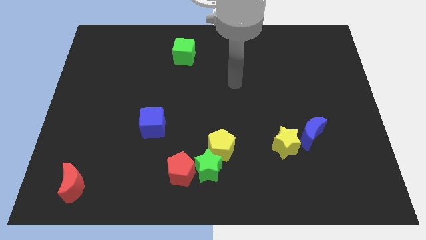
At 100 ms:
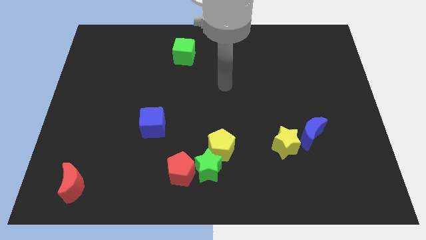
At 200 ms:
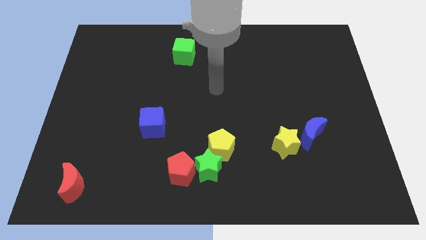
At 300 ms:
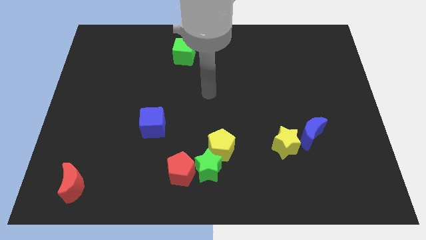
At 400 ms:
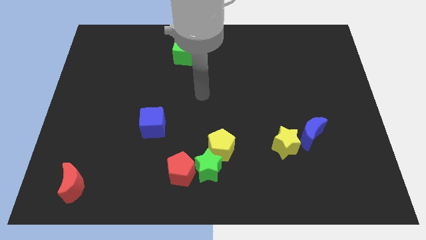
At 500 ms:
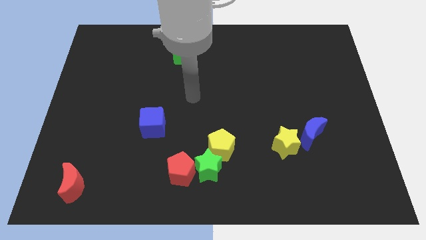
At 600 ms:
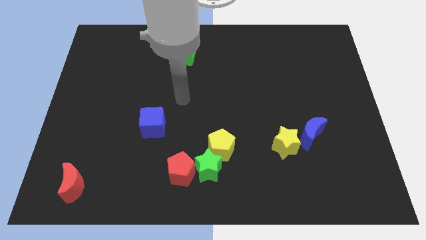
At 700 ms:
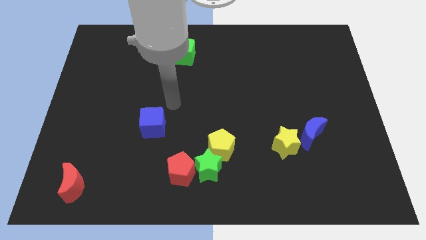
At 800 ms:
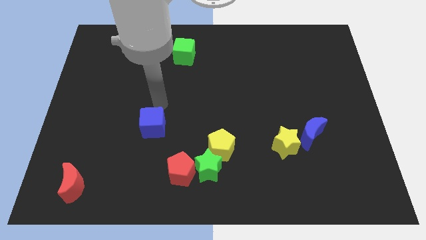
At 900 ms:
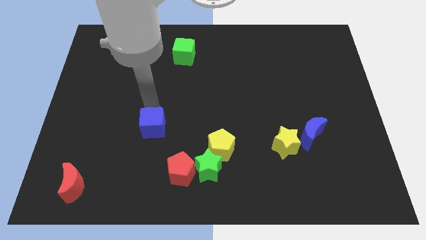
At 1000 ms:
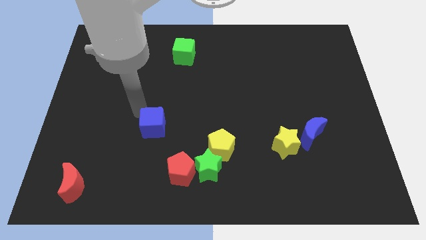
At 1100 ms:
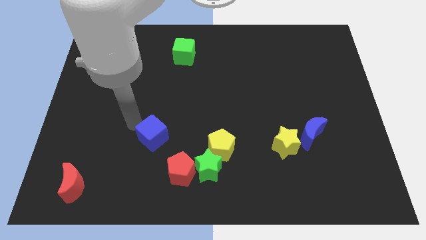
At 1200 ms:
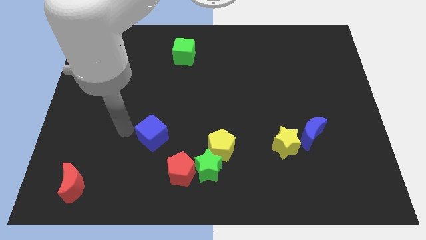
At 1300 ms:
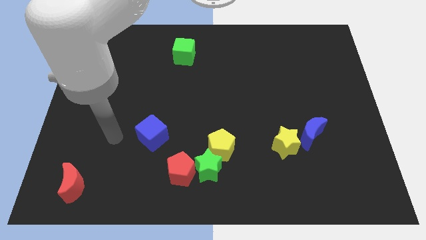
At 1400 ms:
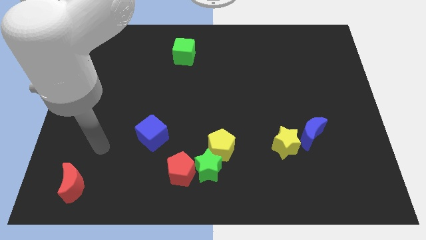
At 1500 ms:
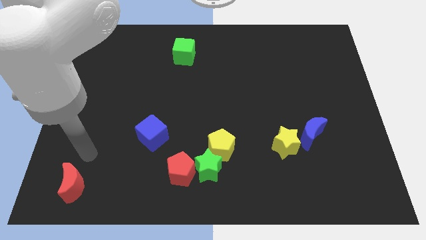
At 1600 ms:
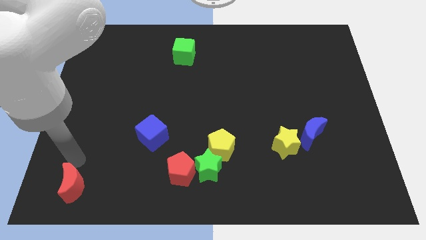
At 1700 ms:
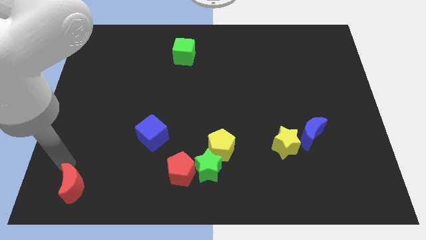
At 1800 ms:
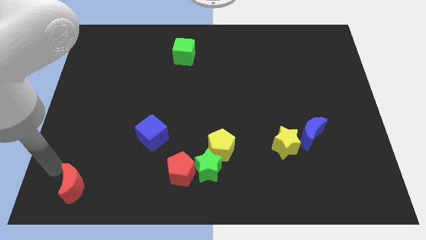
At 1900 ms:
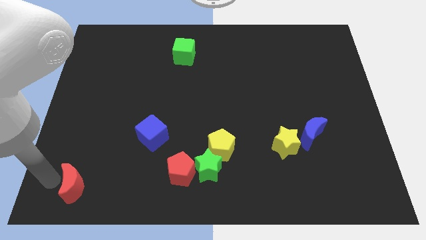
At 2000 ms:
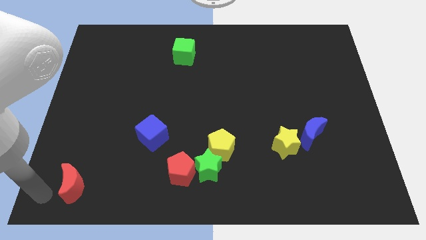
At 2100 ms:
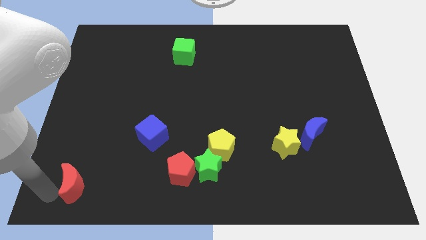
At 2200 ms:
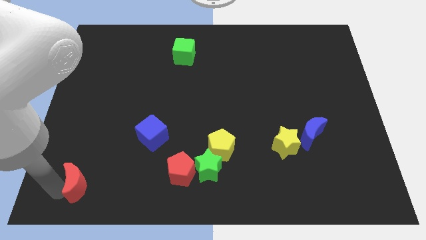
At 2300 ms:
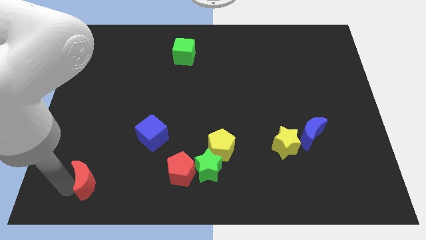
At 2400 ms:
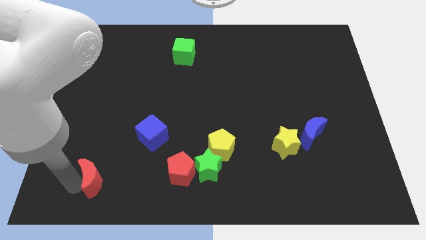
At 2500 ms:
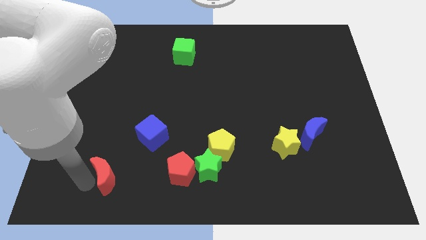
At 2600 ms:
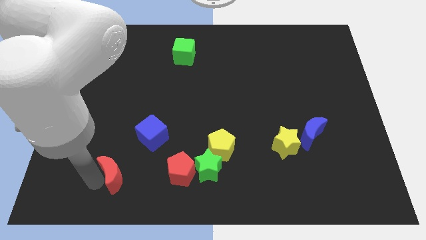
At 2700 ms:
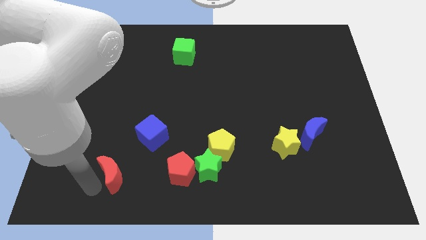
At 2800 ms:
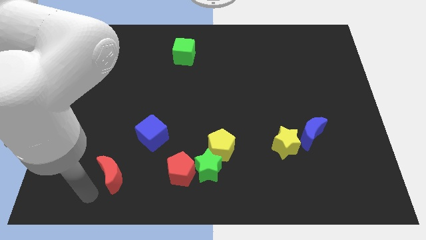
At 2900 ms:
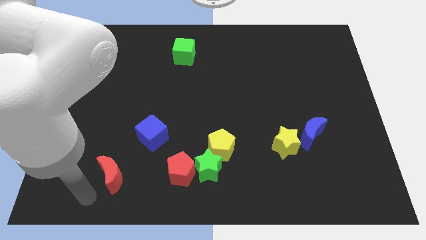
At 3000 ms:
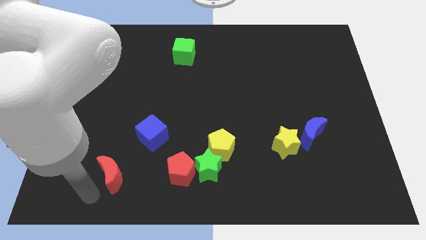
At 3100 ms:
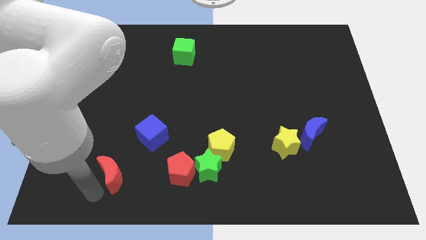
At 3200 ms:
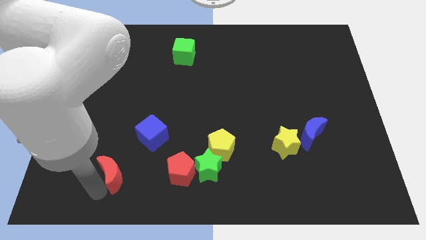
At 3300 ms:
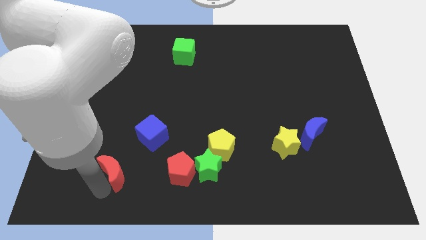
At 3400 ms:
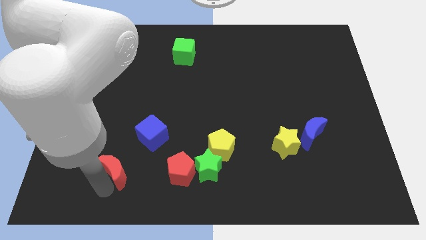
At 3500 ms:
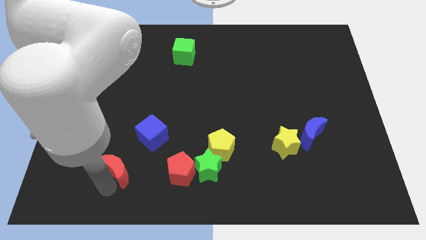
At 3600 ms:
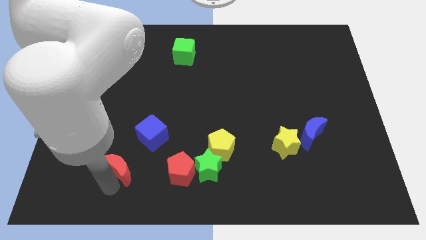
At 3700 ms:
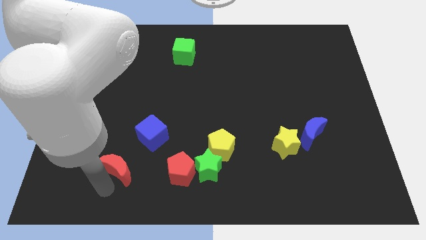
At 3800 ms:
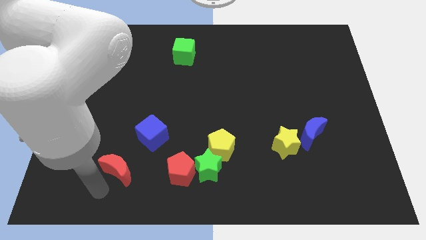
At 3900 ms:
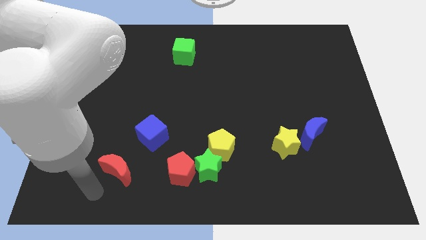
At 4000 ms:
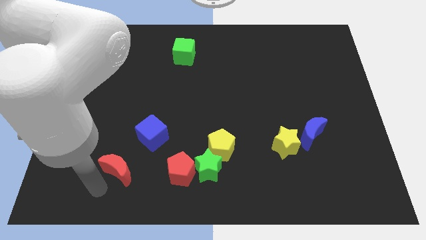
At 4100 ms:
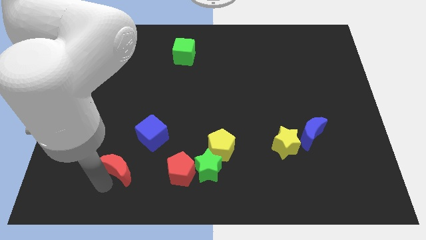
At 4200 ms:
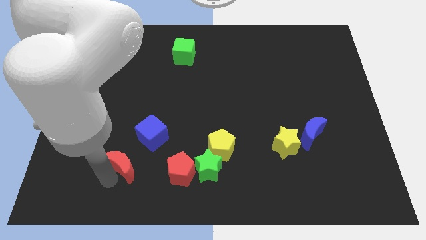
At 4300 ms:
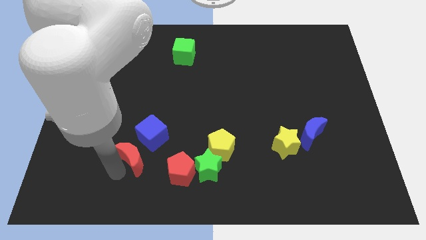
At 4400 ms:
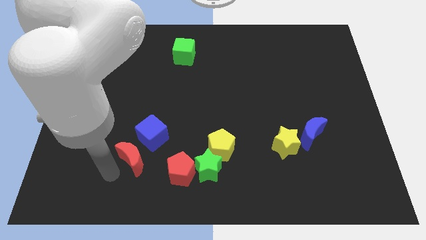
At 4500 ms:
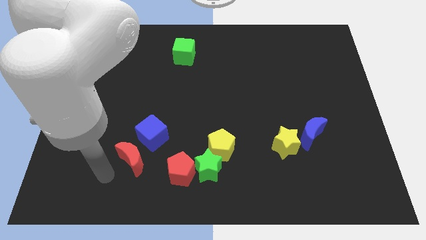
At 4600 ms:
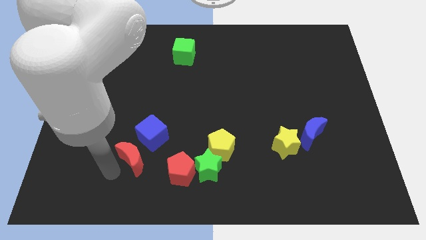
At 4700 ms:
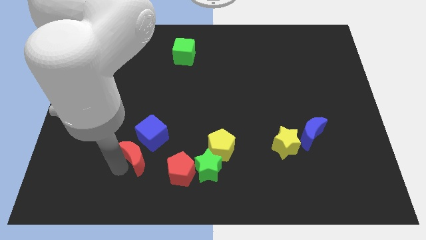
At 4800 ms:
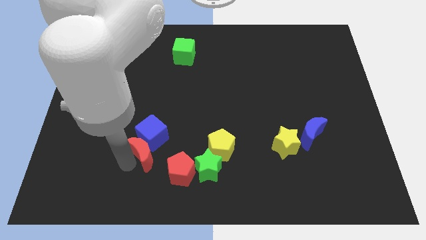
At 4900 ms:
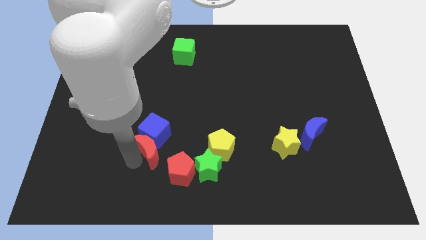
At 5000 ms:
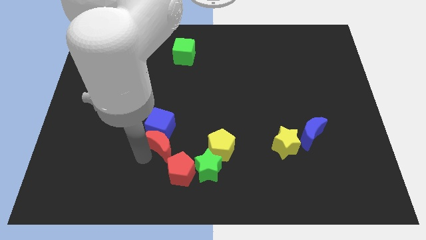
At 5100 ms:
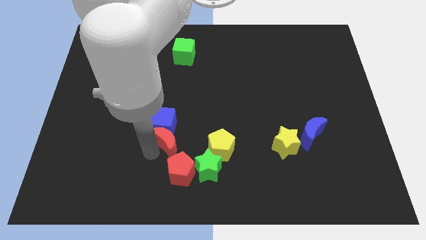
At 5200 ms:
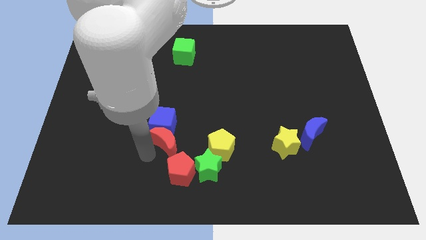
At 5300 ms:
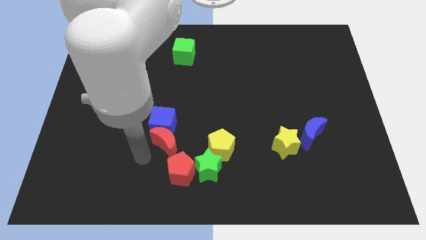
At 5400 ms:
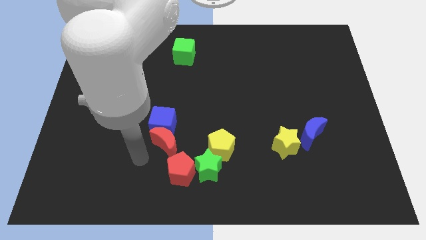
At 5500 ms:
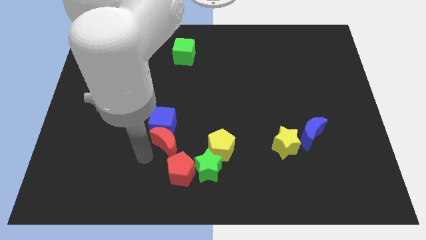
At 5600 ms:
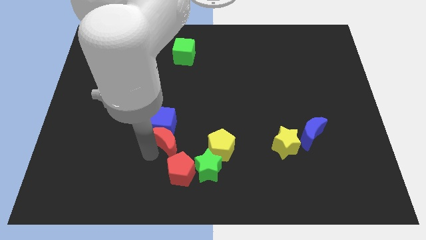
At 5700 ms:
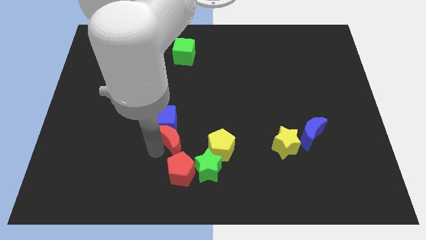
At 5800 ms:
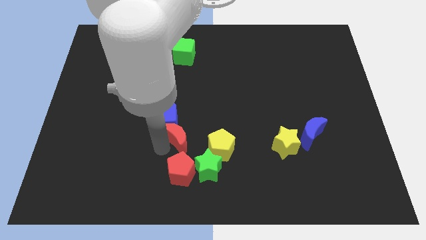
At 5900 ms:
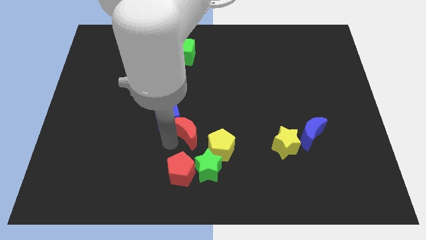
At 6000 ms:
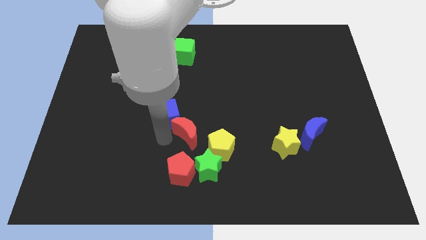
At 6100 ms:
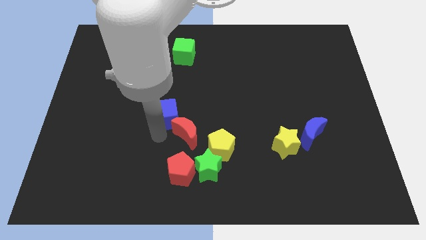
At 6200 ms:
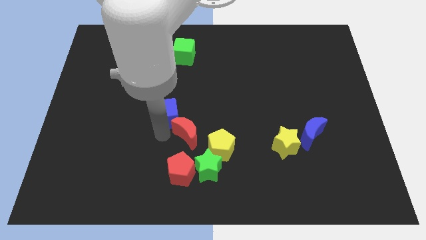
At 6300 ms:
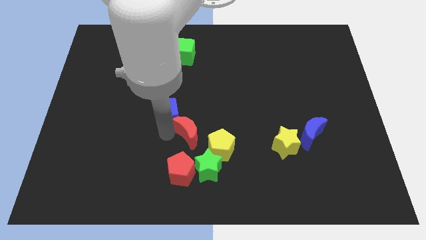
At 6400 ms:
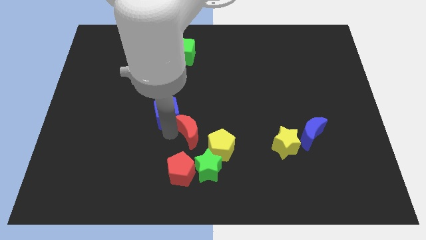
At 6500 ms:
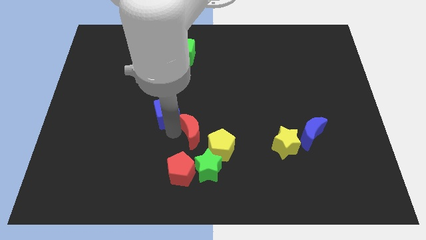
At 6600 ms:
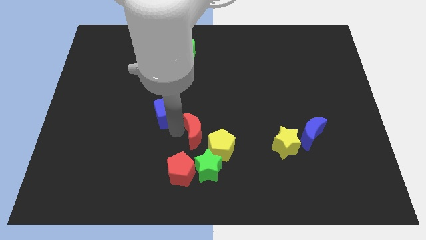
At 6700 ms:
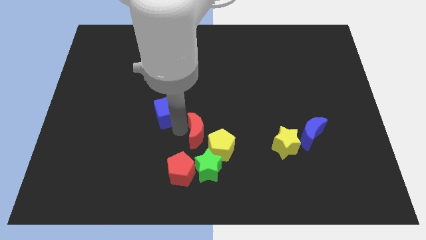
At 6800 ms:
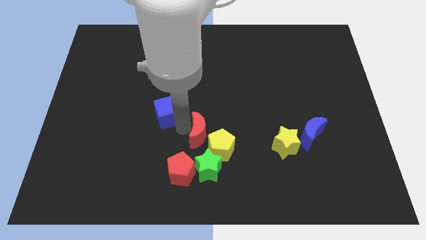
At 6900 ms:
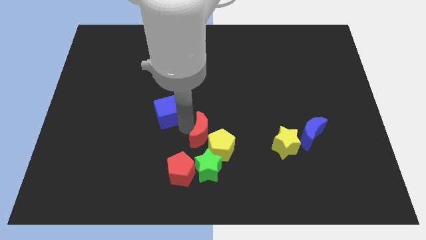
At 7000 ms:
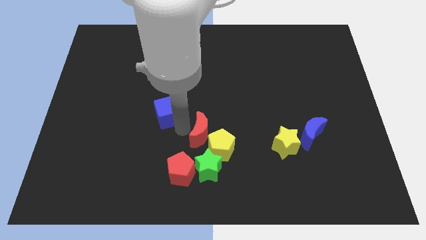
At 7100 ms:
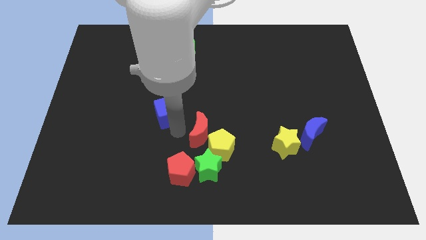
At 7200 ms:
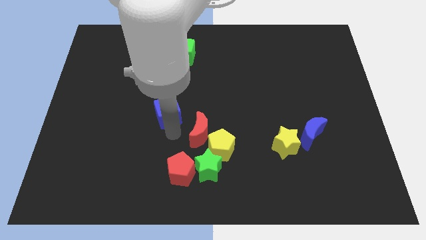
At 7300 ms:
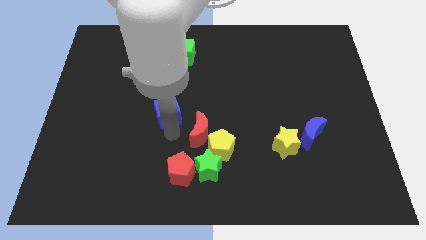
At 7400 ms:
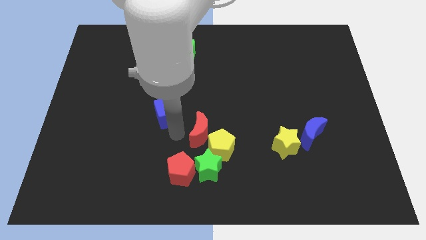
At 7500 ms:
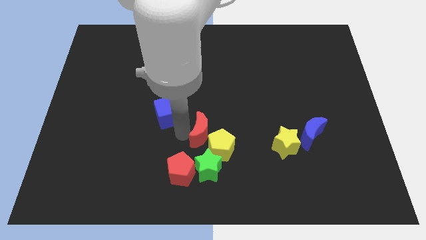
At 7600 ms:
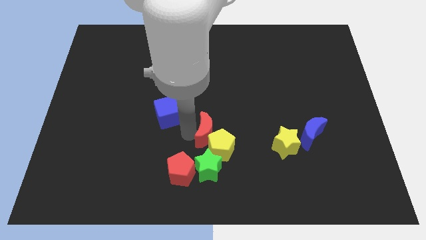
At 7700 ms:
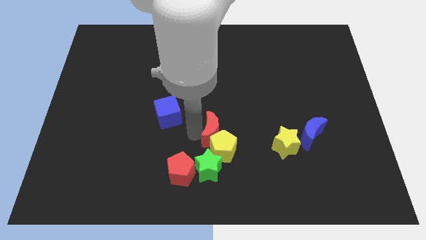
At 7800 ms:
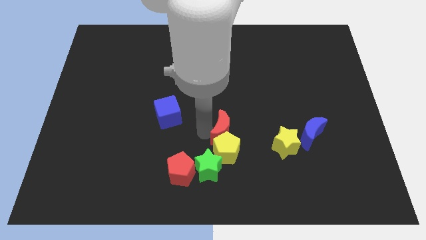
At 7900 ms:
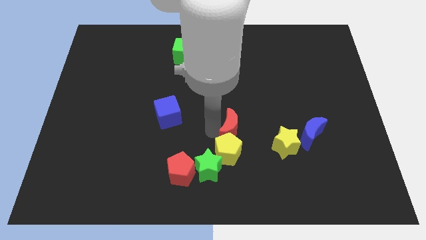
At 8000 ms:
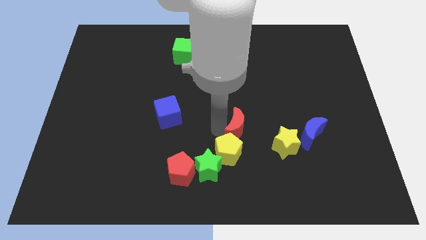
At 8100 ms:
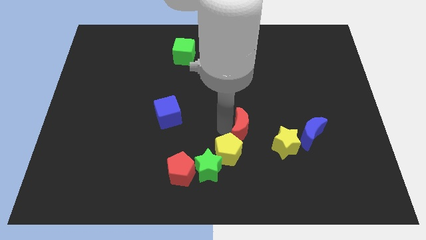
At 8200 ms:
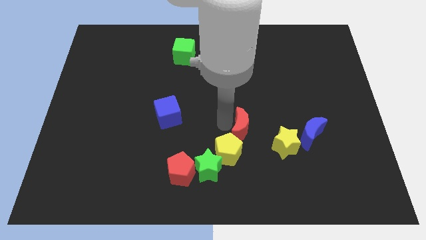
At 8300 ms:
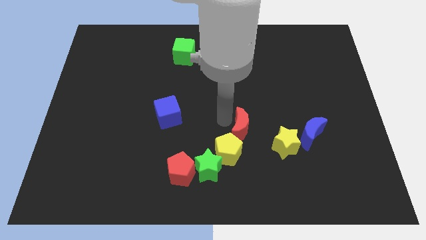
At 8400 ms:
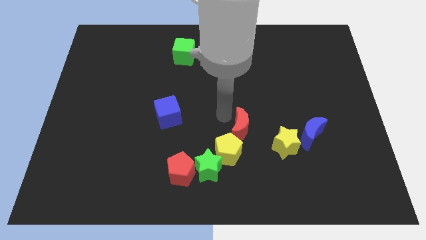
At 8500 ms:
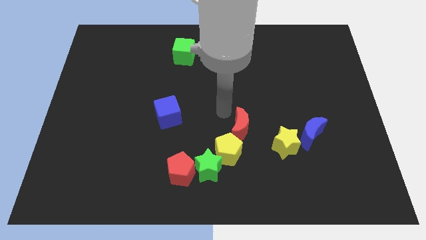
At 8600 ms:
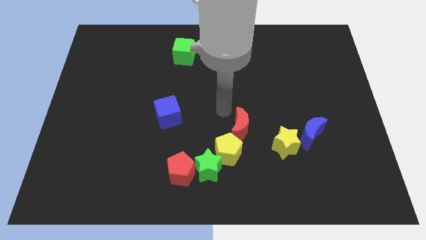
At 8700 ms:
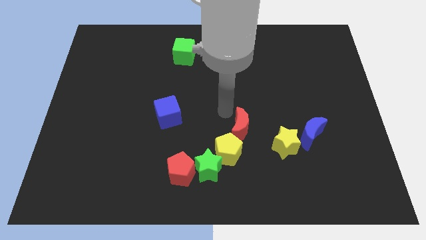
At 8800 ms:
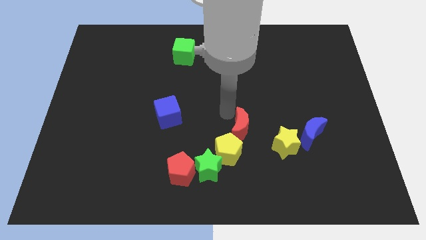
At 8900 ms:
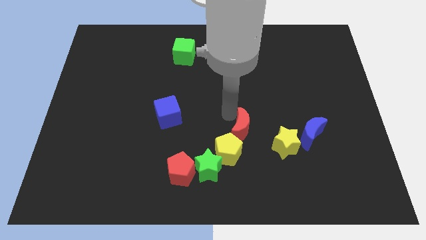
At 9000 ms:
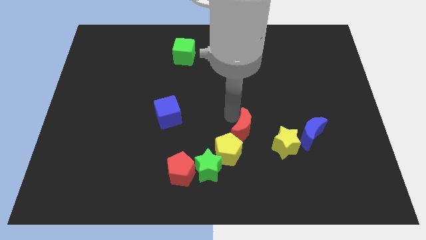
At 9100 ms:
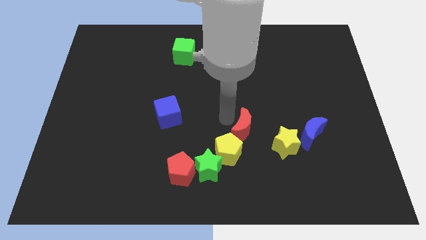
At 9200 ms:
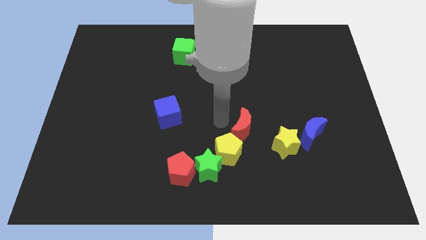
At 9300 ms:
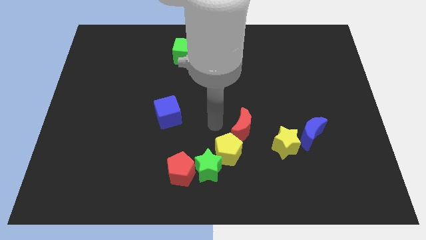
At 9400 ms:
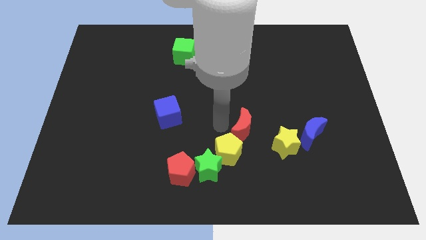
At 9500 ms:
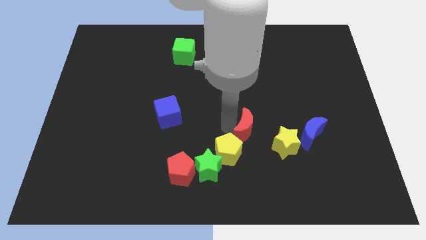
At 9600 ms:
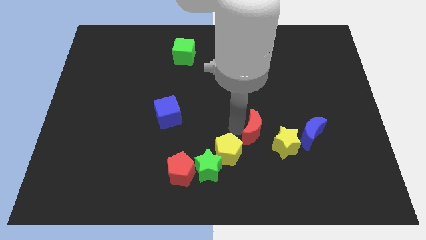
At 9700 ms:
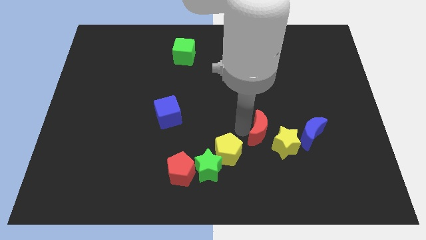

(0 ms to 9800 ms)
push the red moon next to the yellow star
